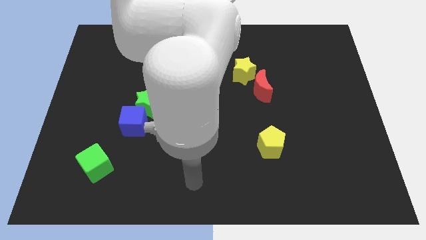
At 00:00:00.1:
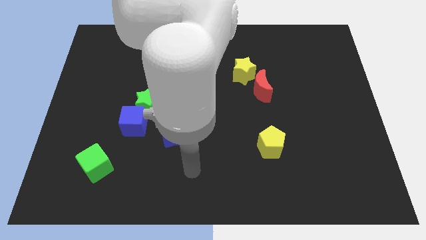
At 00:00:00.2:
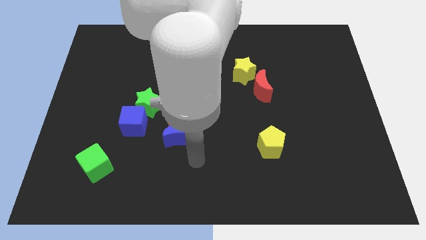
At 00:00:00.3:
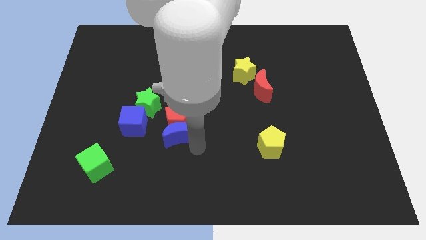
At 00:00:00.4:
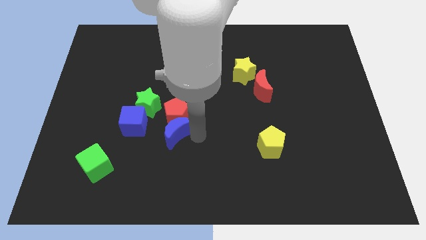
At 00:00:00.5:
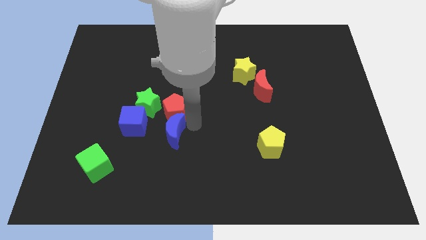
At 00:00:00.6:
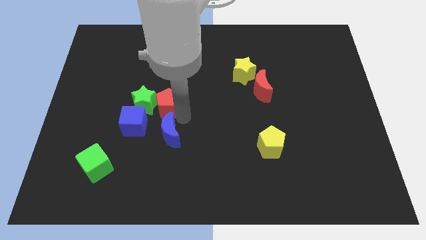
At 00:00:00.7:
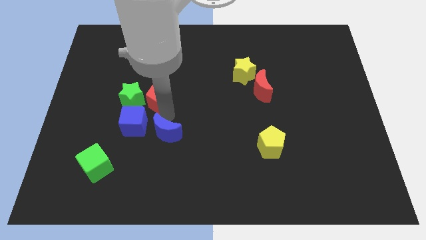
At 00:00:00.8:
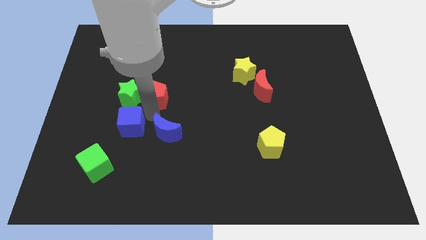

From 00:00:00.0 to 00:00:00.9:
pull the blue moon apart from the red pentagon

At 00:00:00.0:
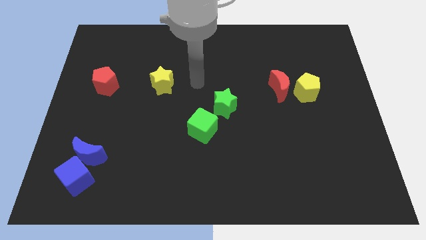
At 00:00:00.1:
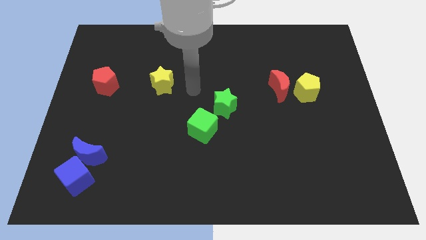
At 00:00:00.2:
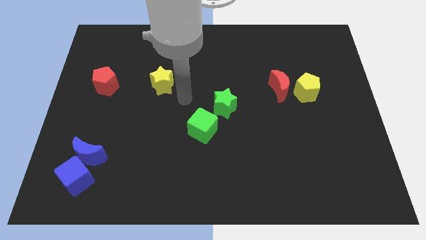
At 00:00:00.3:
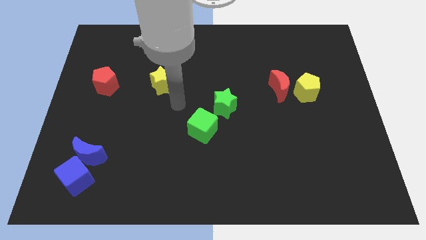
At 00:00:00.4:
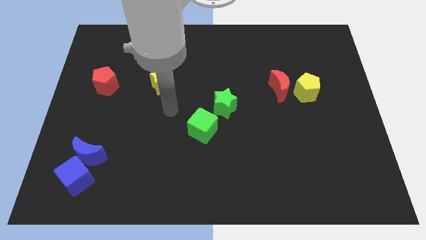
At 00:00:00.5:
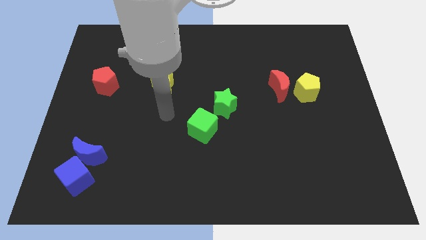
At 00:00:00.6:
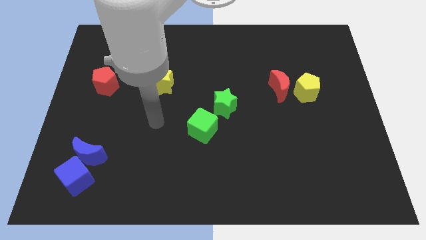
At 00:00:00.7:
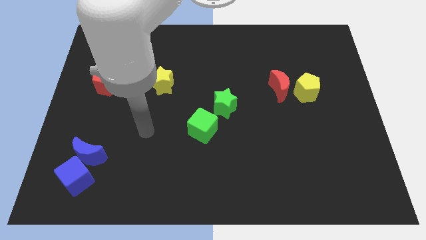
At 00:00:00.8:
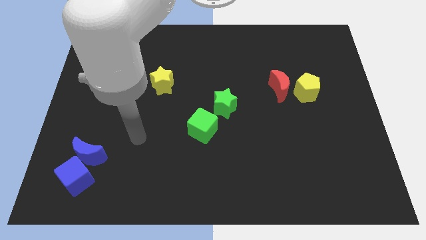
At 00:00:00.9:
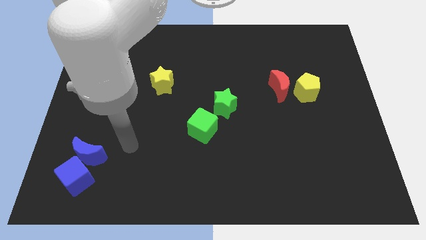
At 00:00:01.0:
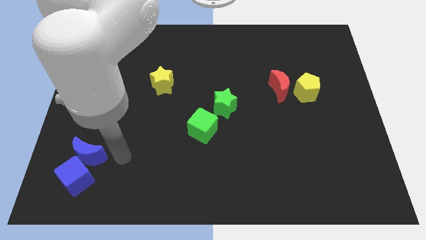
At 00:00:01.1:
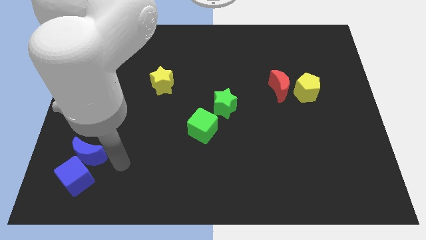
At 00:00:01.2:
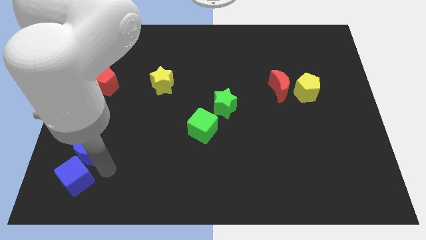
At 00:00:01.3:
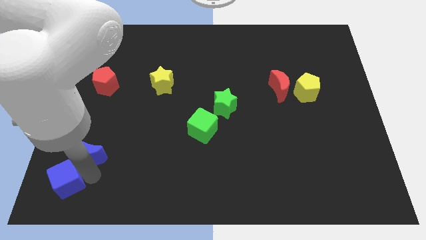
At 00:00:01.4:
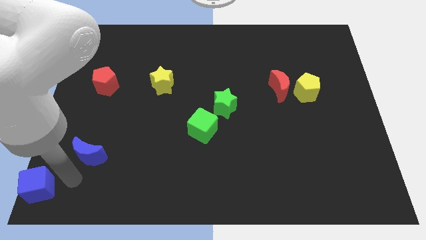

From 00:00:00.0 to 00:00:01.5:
move the blue moon away from the blue cube

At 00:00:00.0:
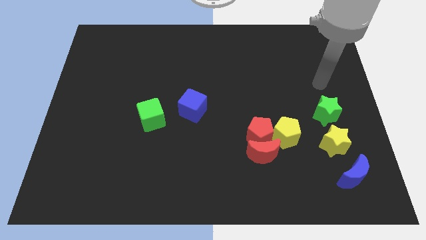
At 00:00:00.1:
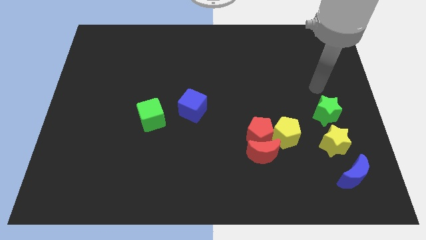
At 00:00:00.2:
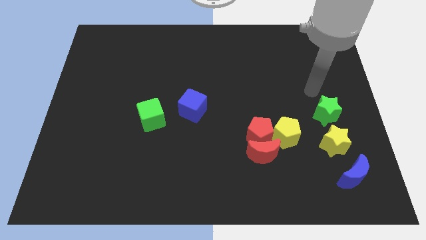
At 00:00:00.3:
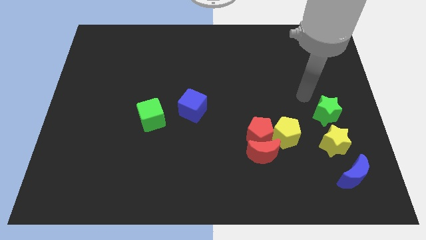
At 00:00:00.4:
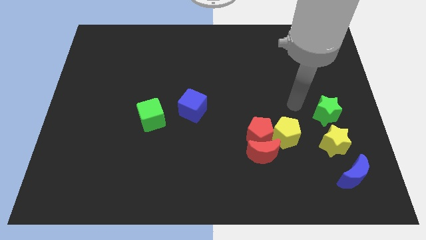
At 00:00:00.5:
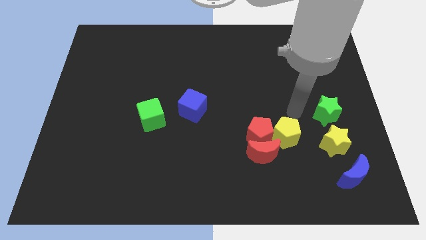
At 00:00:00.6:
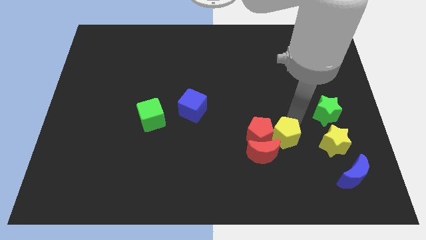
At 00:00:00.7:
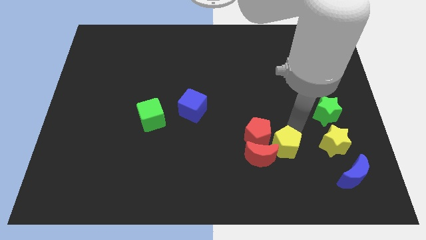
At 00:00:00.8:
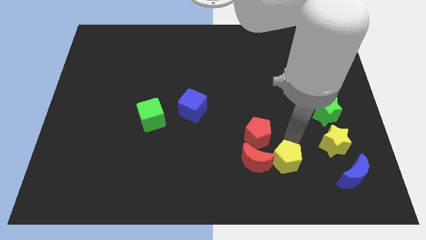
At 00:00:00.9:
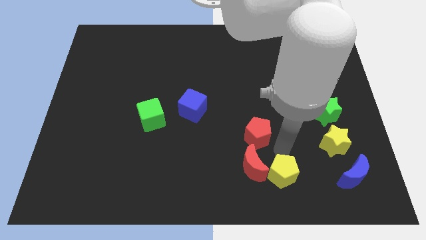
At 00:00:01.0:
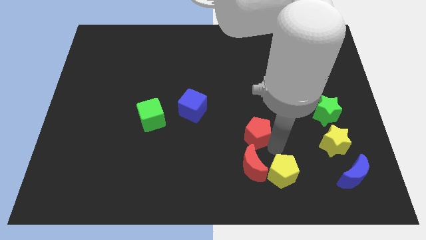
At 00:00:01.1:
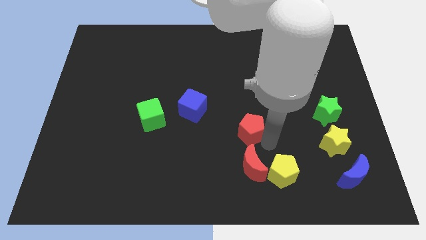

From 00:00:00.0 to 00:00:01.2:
separate the red pentagon from the red moon and yellow pentagon

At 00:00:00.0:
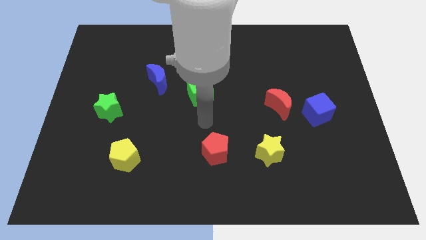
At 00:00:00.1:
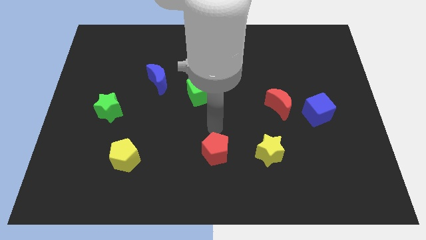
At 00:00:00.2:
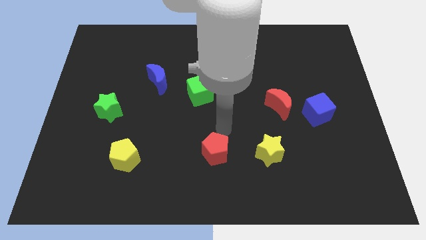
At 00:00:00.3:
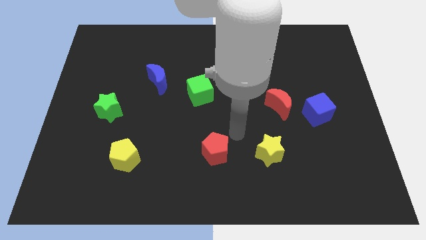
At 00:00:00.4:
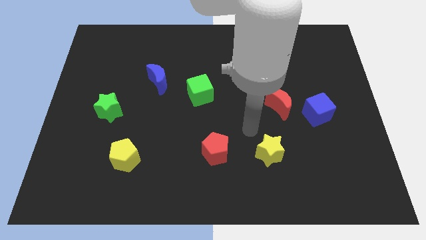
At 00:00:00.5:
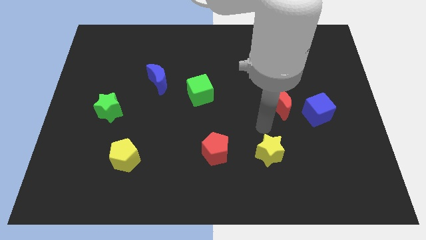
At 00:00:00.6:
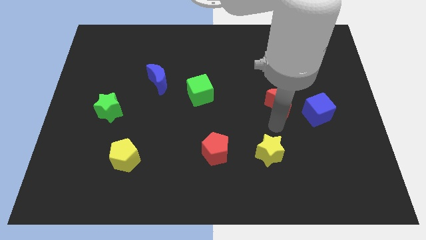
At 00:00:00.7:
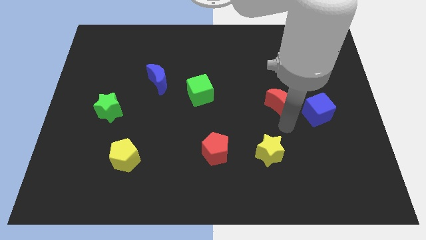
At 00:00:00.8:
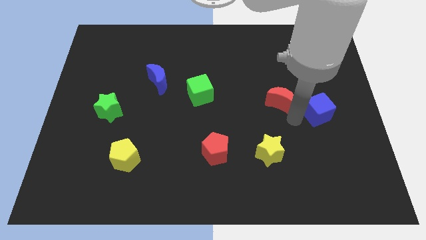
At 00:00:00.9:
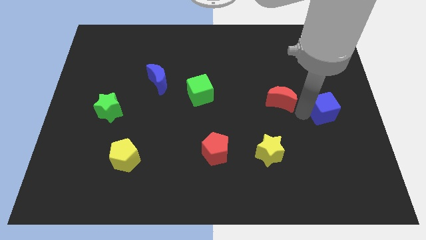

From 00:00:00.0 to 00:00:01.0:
move the red moon away from the blue cube

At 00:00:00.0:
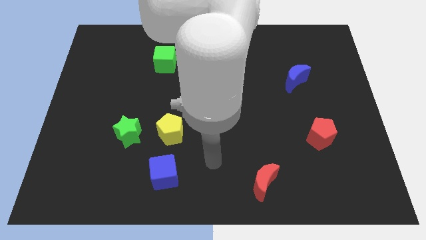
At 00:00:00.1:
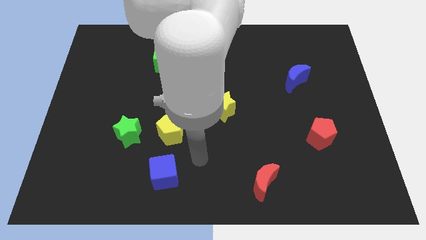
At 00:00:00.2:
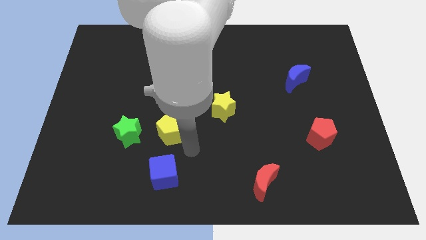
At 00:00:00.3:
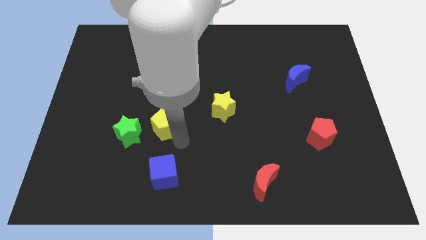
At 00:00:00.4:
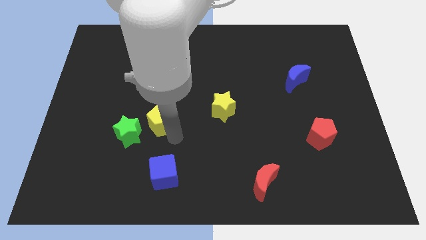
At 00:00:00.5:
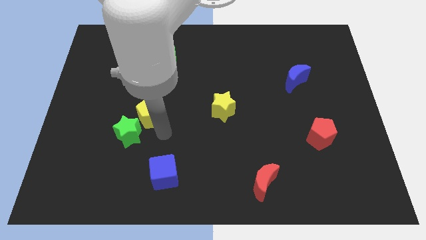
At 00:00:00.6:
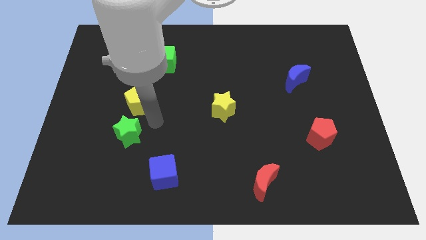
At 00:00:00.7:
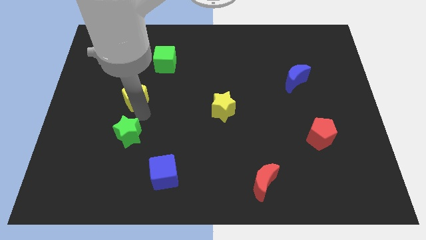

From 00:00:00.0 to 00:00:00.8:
move the green star away from the yellow pentagon

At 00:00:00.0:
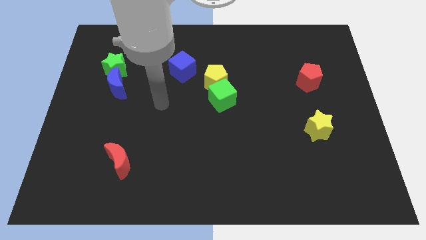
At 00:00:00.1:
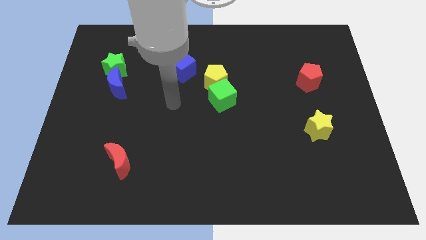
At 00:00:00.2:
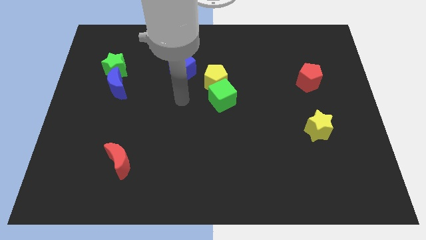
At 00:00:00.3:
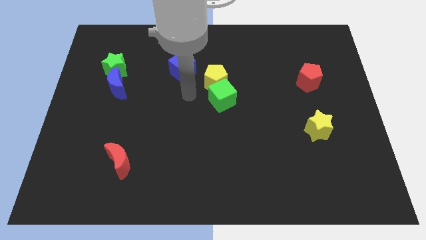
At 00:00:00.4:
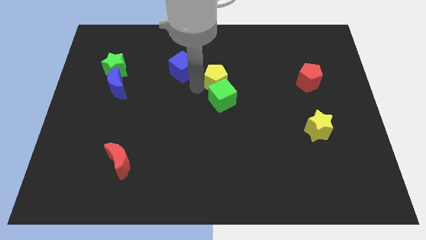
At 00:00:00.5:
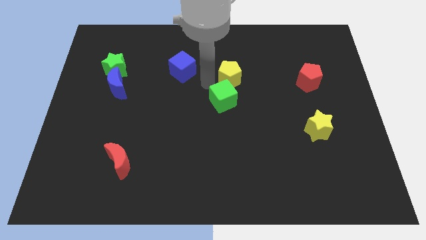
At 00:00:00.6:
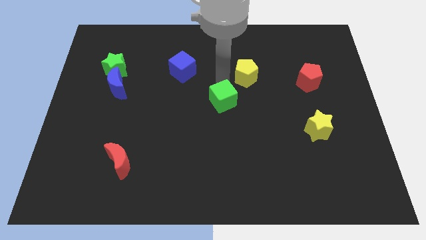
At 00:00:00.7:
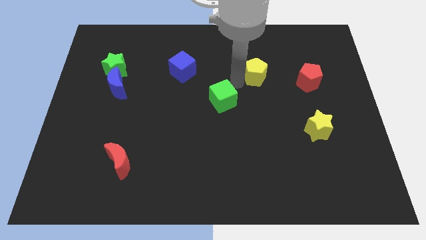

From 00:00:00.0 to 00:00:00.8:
move the green cube away from the yellow pentagon

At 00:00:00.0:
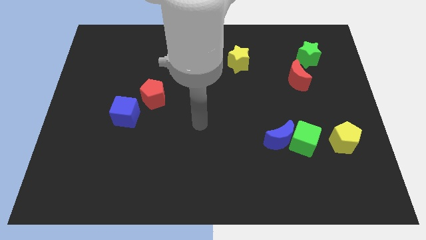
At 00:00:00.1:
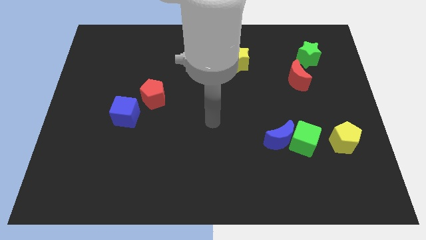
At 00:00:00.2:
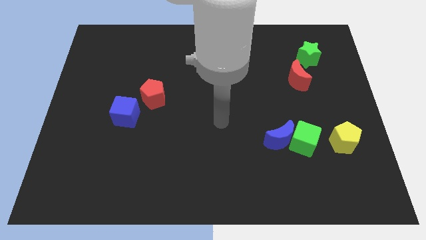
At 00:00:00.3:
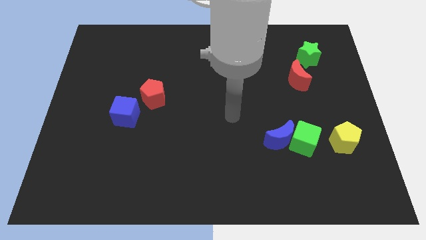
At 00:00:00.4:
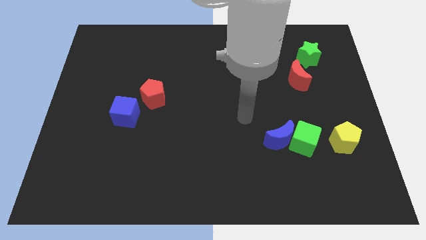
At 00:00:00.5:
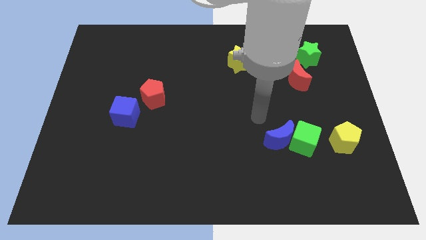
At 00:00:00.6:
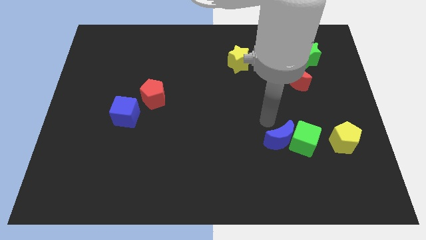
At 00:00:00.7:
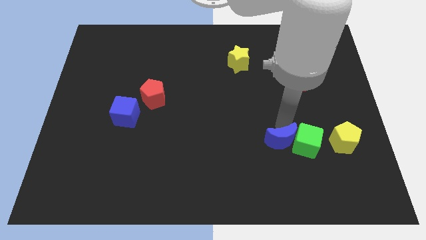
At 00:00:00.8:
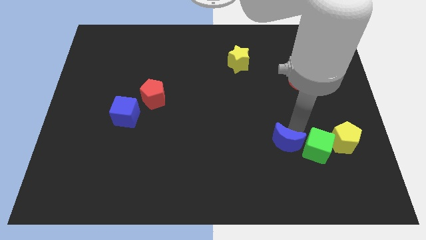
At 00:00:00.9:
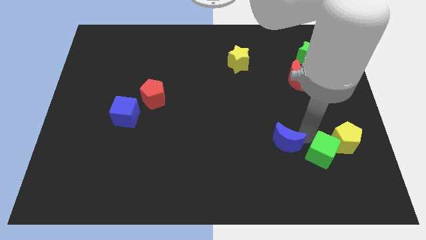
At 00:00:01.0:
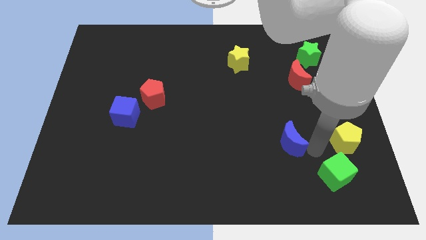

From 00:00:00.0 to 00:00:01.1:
separate the blue moon from the green cube

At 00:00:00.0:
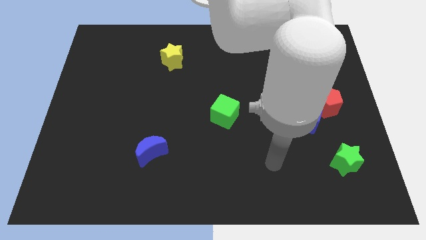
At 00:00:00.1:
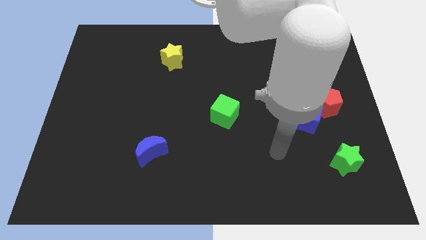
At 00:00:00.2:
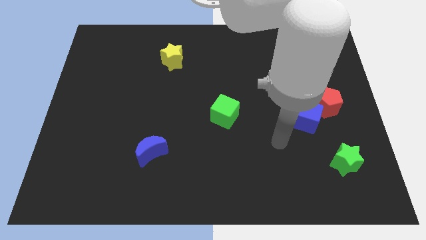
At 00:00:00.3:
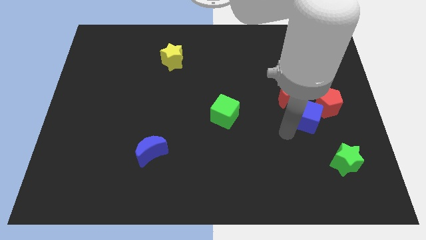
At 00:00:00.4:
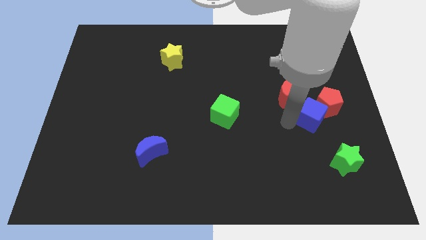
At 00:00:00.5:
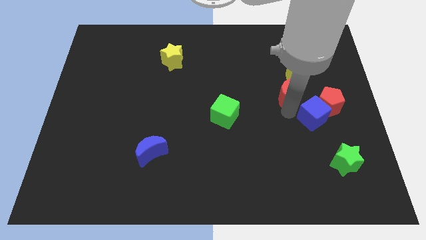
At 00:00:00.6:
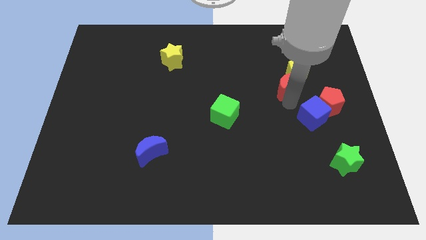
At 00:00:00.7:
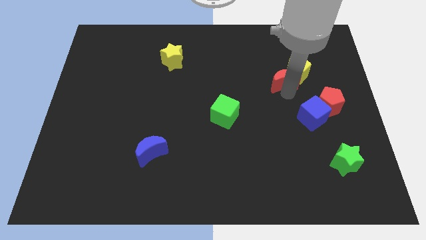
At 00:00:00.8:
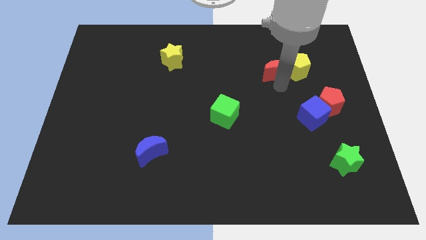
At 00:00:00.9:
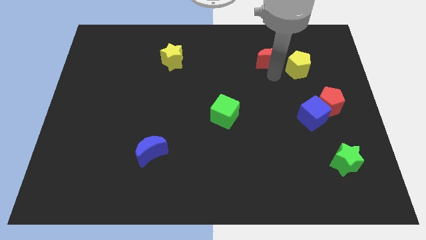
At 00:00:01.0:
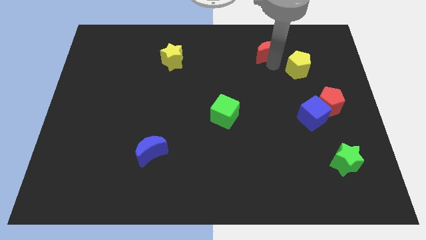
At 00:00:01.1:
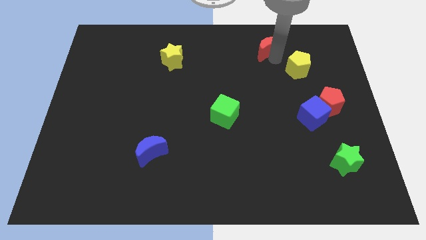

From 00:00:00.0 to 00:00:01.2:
move the yellow pentagon away from the red moon

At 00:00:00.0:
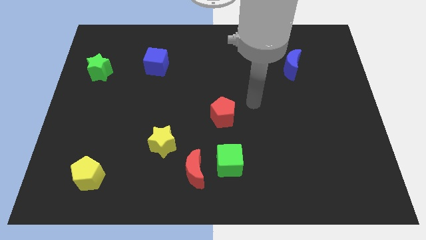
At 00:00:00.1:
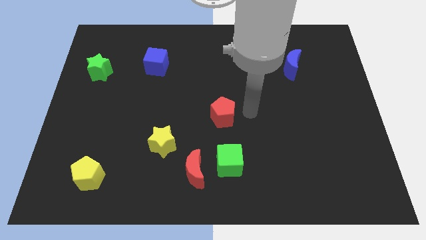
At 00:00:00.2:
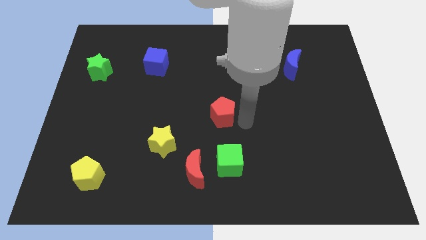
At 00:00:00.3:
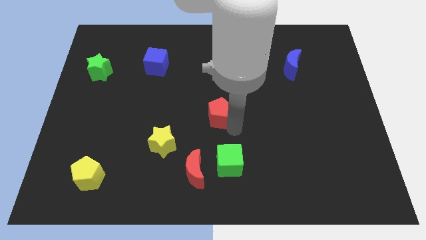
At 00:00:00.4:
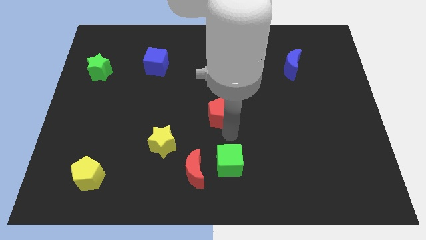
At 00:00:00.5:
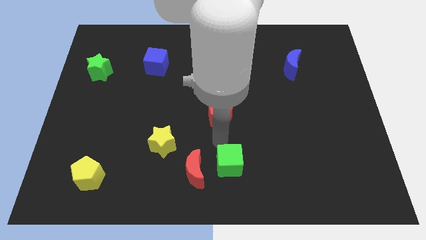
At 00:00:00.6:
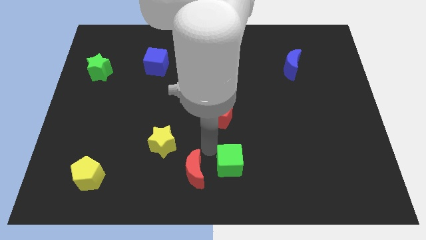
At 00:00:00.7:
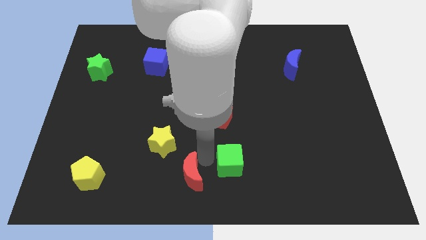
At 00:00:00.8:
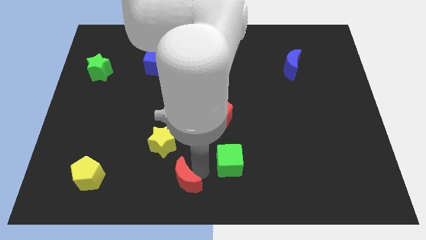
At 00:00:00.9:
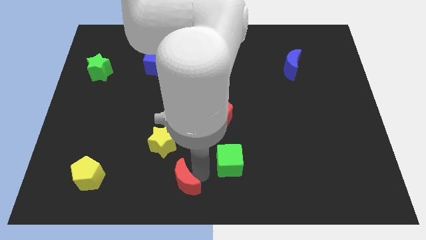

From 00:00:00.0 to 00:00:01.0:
pull the green cube apart from the red moon
